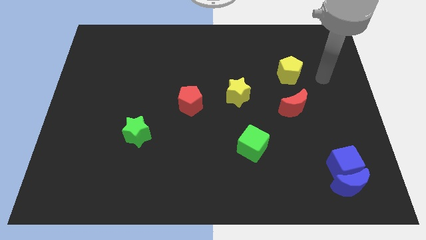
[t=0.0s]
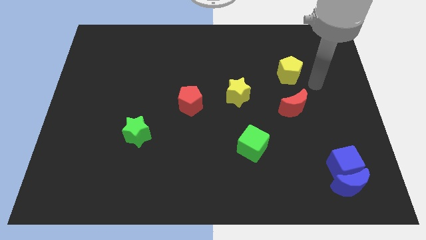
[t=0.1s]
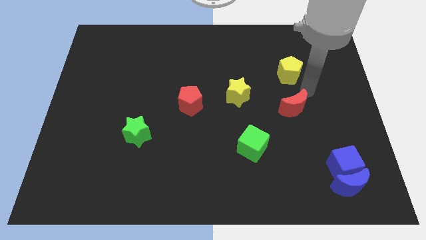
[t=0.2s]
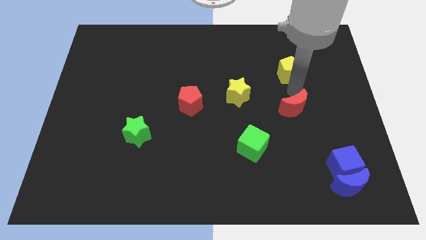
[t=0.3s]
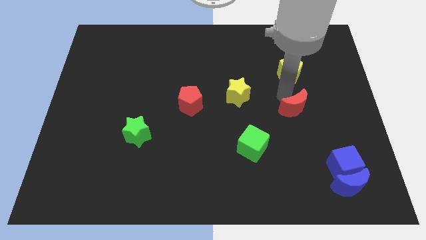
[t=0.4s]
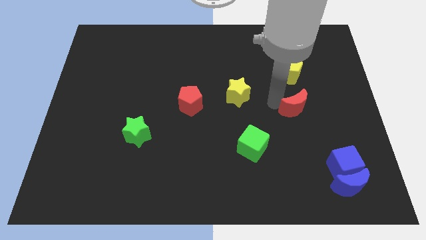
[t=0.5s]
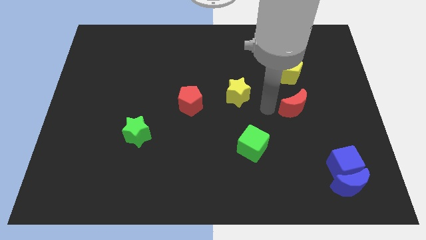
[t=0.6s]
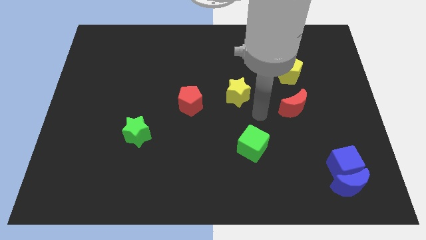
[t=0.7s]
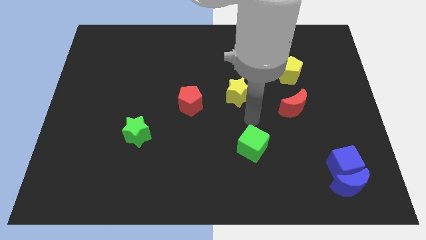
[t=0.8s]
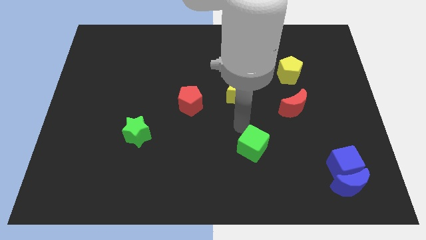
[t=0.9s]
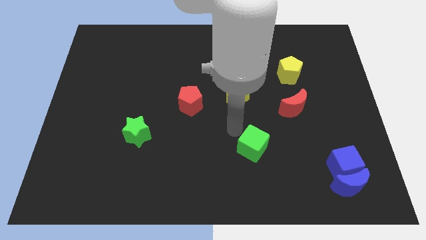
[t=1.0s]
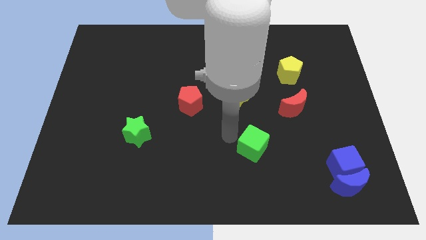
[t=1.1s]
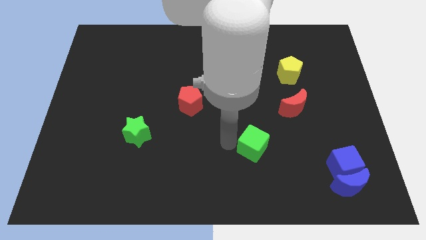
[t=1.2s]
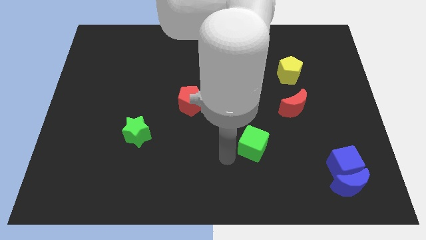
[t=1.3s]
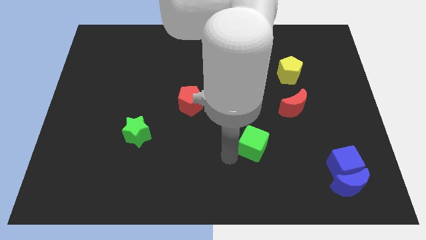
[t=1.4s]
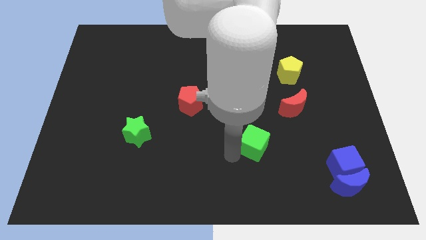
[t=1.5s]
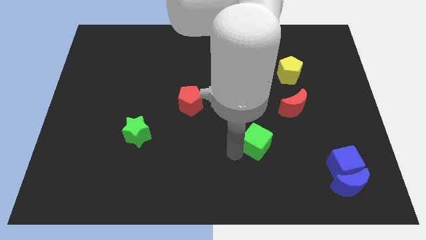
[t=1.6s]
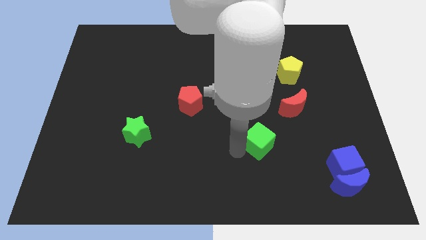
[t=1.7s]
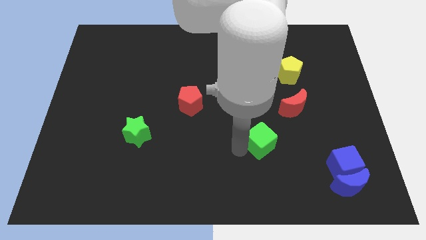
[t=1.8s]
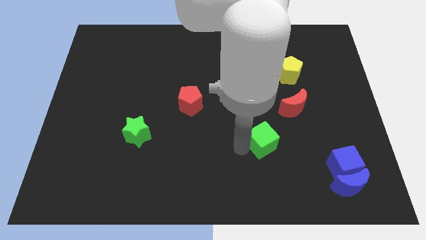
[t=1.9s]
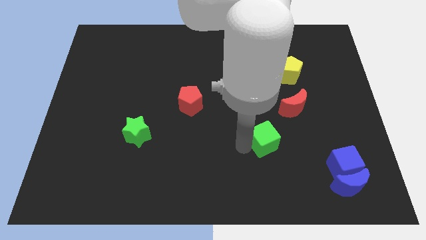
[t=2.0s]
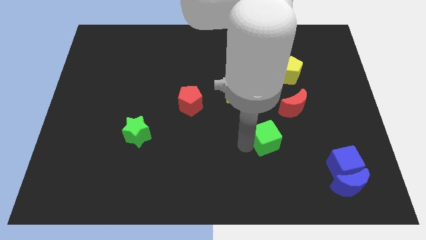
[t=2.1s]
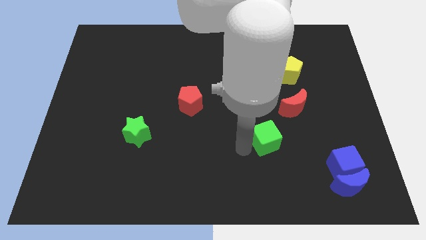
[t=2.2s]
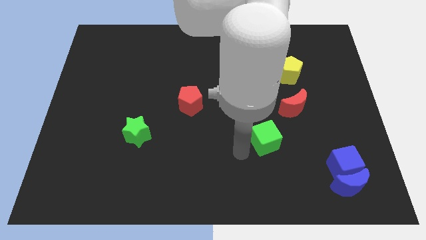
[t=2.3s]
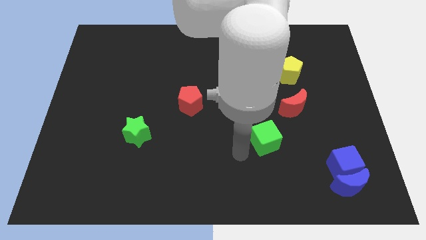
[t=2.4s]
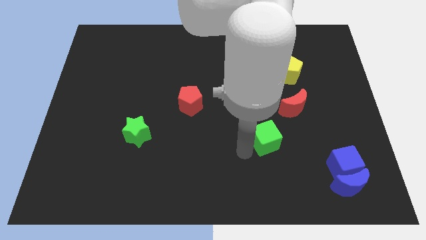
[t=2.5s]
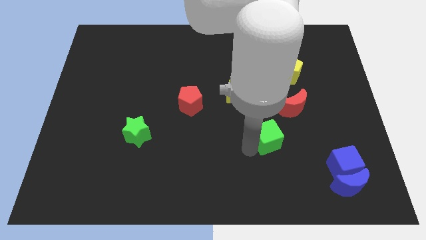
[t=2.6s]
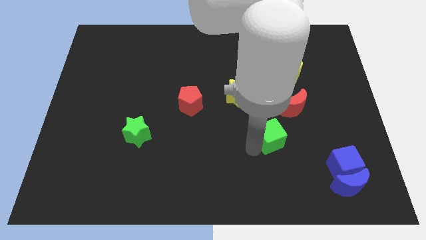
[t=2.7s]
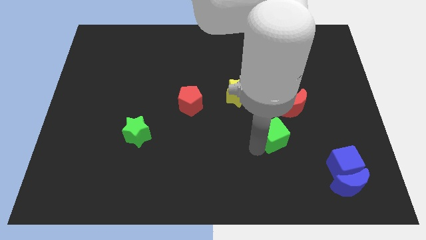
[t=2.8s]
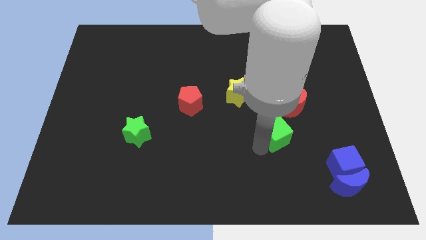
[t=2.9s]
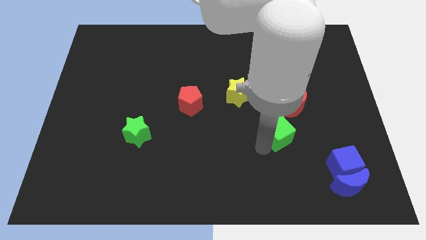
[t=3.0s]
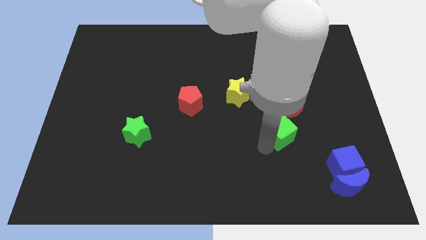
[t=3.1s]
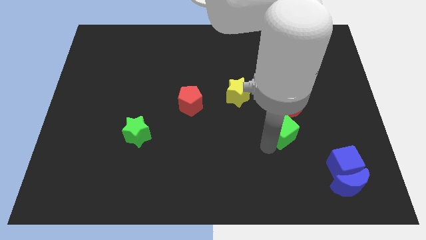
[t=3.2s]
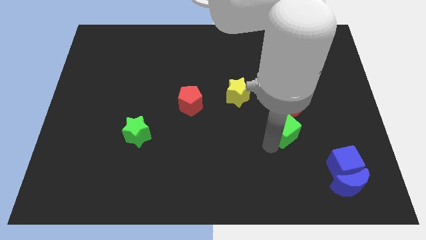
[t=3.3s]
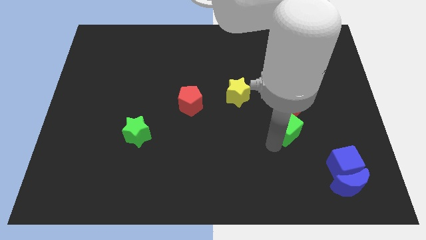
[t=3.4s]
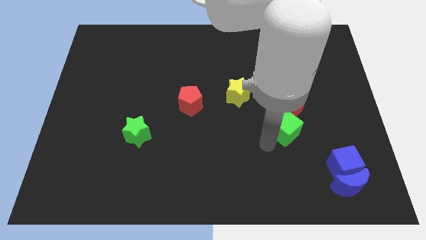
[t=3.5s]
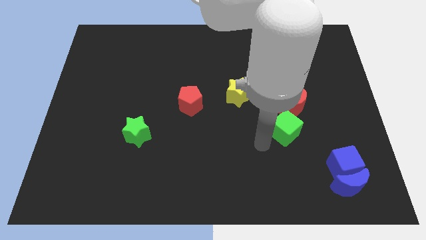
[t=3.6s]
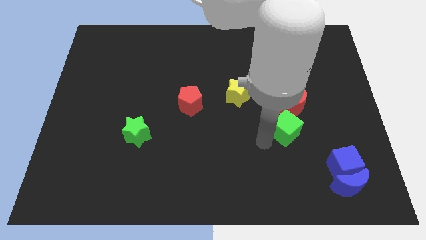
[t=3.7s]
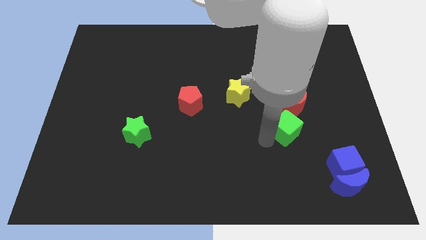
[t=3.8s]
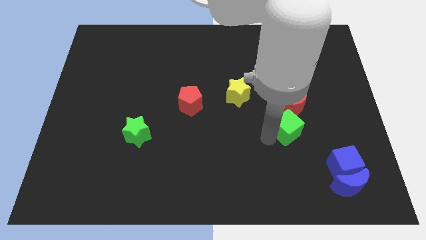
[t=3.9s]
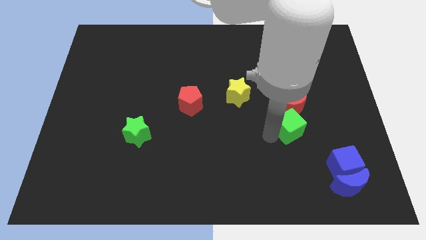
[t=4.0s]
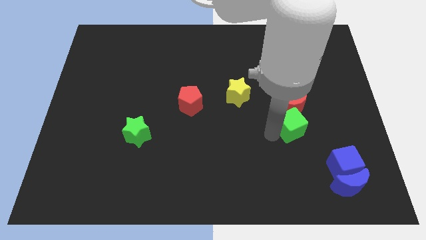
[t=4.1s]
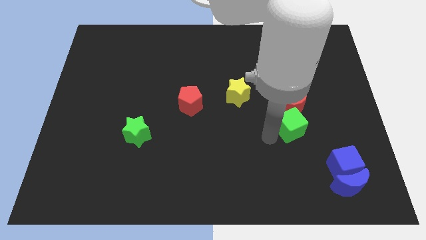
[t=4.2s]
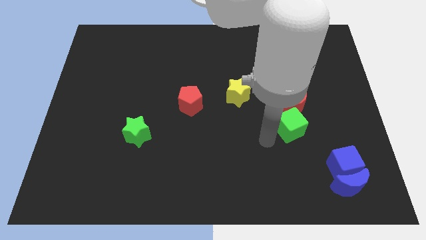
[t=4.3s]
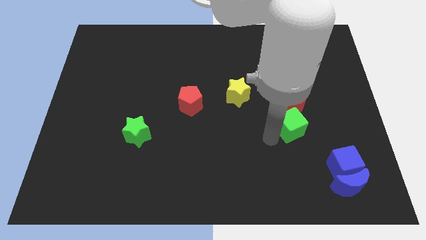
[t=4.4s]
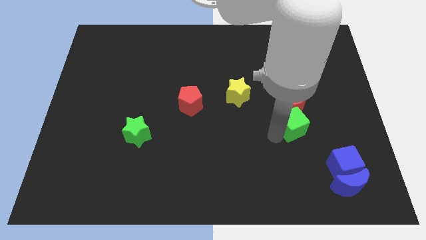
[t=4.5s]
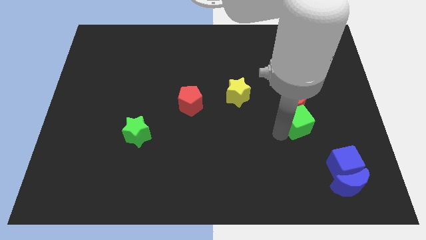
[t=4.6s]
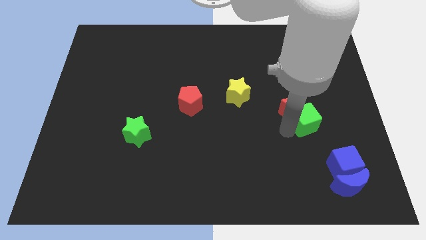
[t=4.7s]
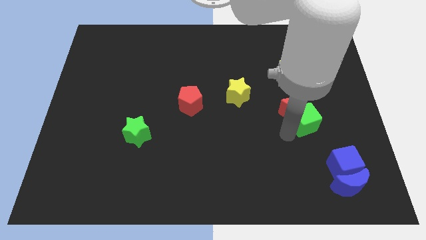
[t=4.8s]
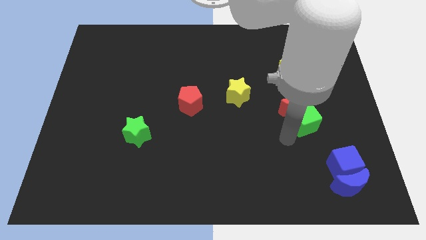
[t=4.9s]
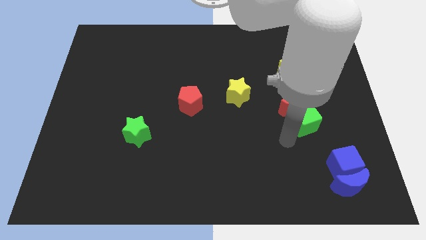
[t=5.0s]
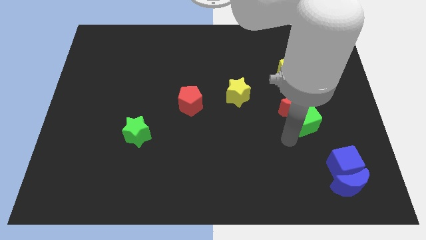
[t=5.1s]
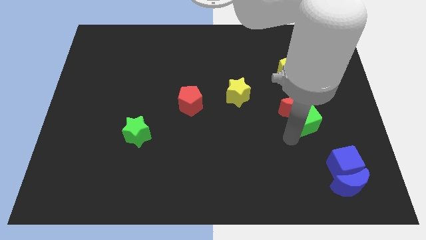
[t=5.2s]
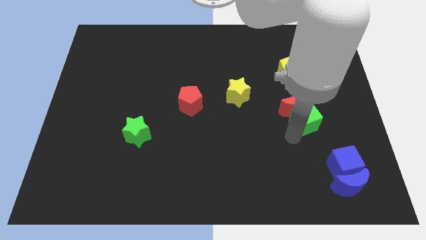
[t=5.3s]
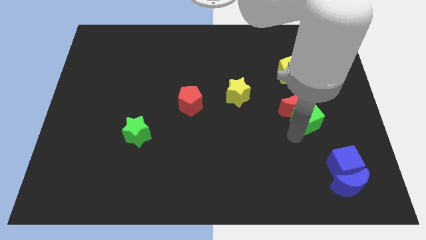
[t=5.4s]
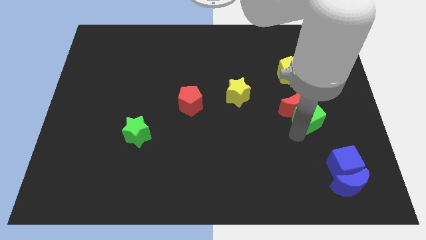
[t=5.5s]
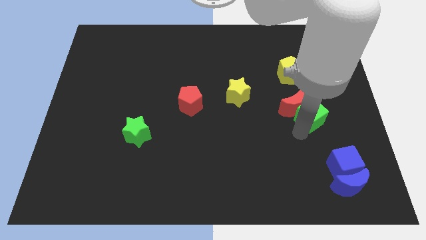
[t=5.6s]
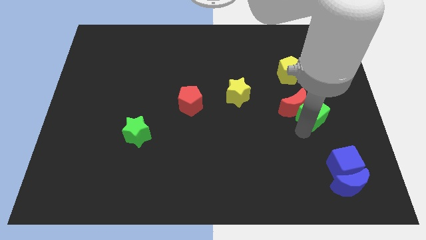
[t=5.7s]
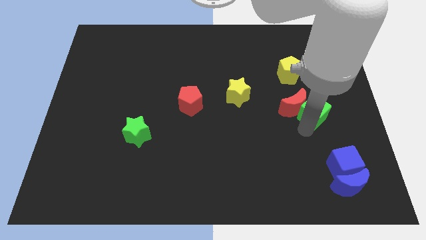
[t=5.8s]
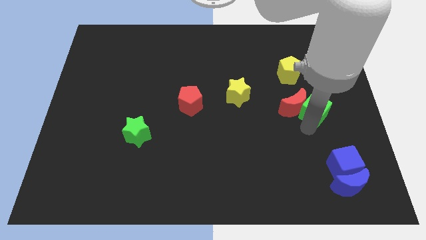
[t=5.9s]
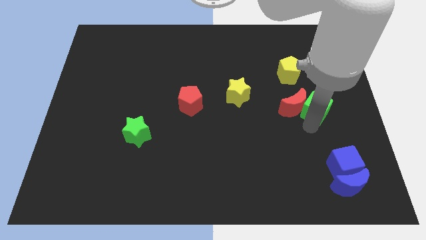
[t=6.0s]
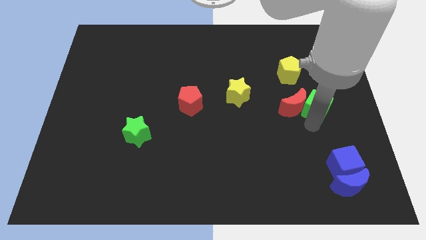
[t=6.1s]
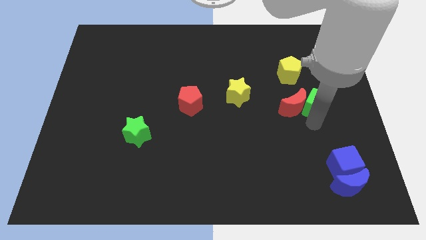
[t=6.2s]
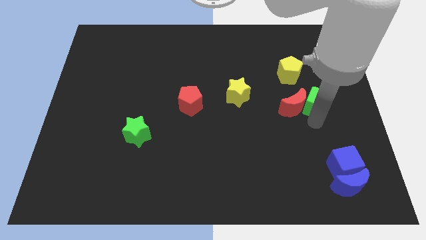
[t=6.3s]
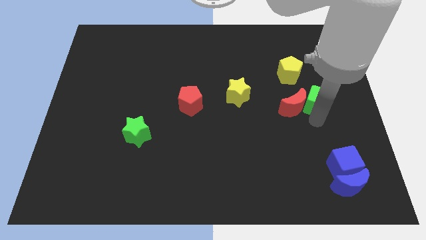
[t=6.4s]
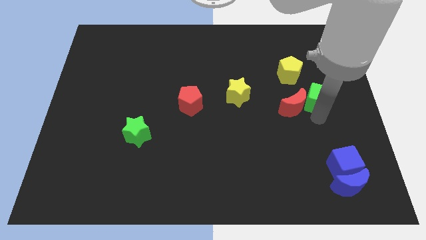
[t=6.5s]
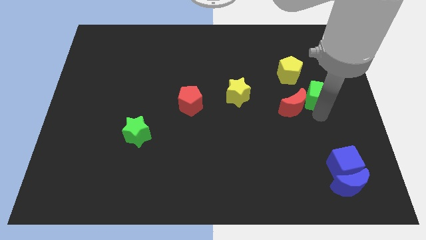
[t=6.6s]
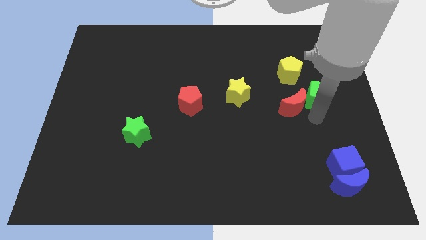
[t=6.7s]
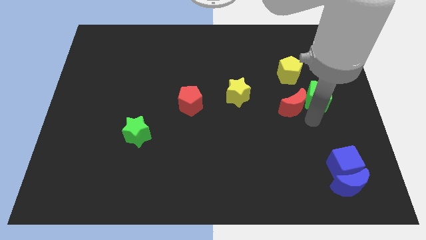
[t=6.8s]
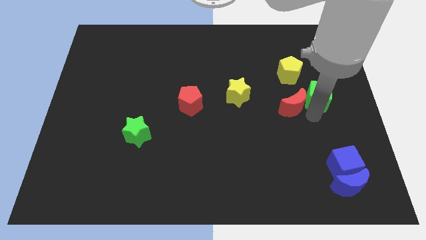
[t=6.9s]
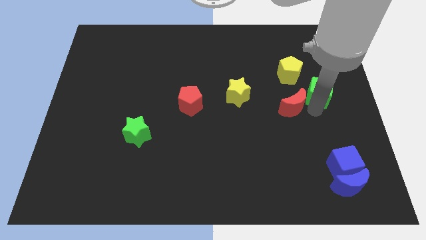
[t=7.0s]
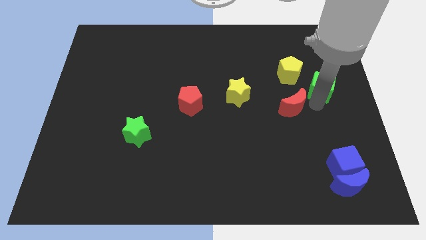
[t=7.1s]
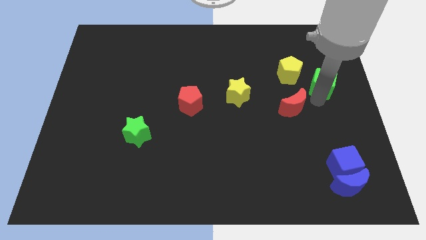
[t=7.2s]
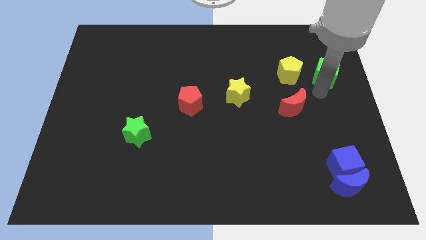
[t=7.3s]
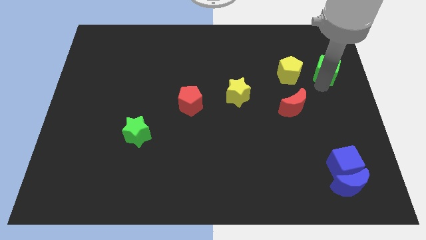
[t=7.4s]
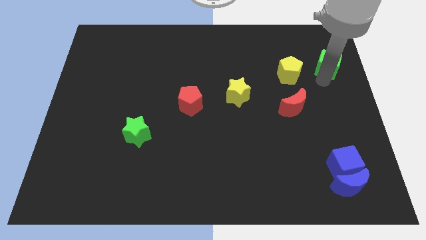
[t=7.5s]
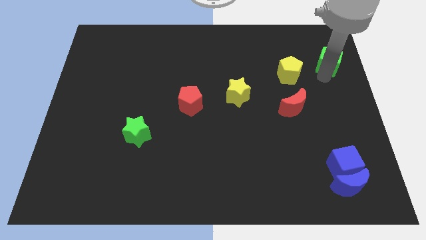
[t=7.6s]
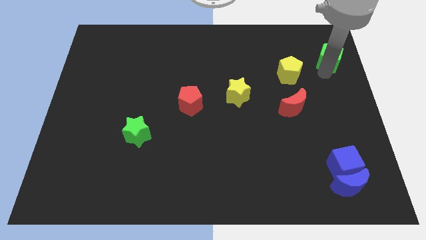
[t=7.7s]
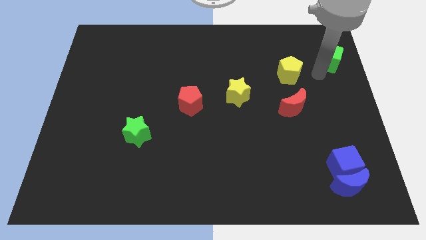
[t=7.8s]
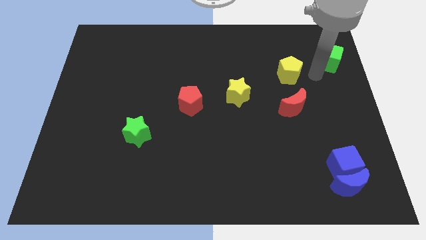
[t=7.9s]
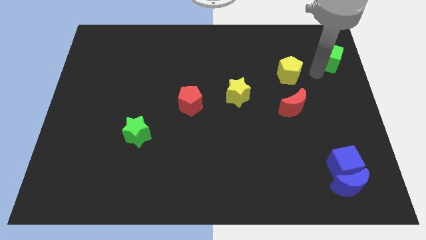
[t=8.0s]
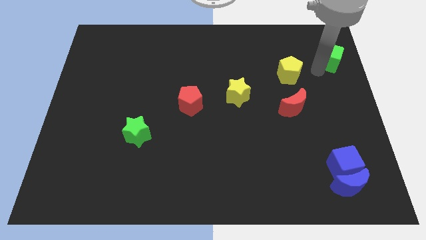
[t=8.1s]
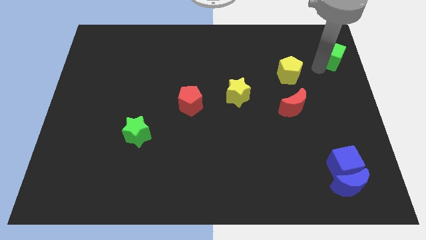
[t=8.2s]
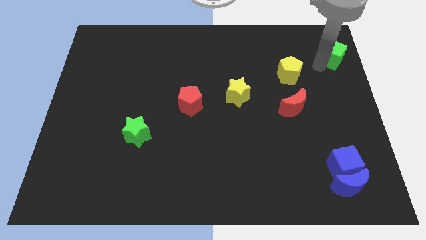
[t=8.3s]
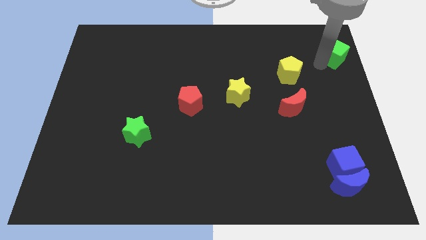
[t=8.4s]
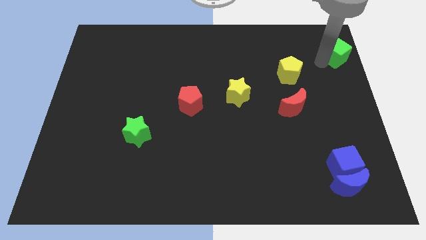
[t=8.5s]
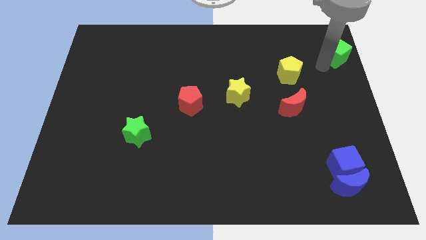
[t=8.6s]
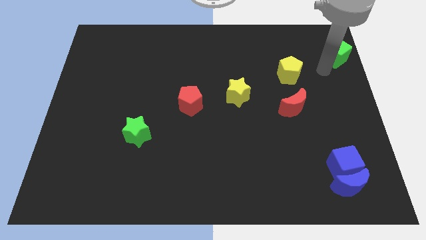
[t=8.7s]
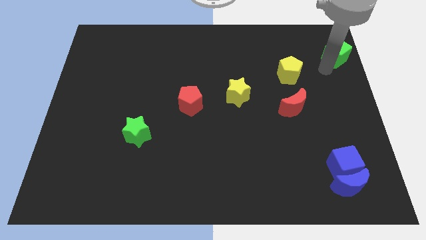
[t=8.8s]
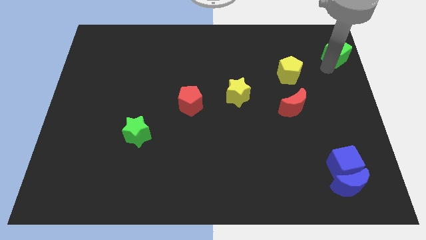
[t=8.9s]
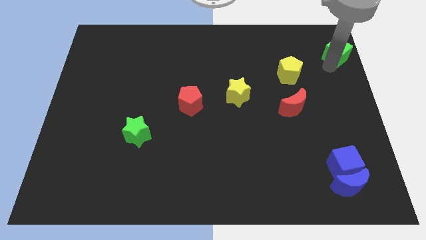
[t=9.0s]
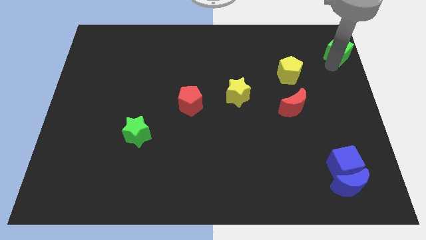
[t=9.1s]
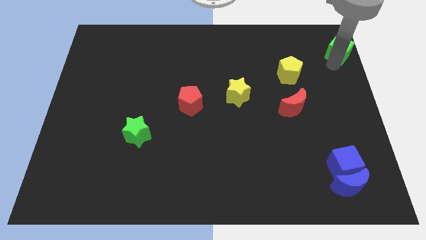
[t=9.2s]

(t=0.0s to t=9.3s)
move the green cube to the top right
